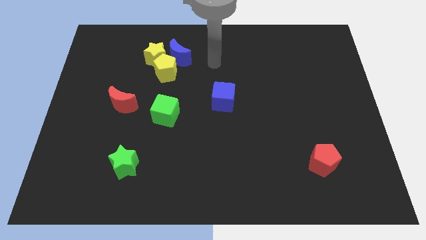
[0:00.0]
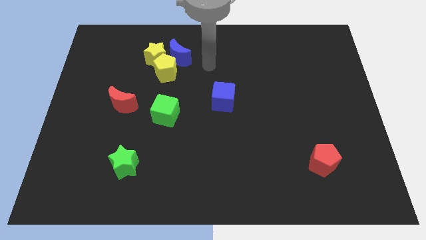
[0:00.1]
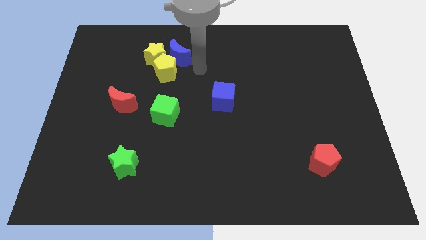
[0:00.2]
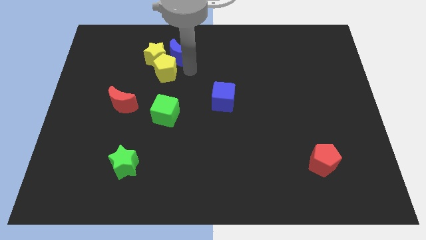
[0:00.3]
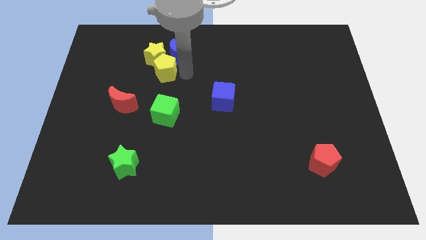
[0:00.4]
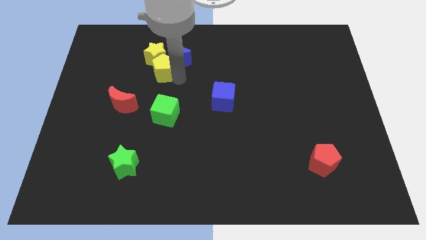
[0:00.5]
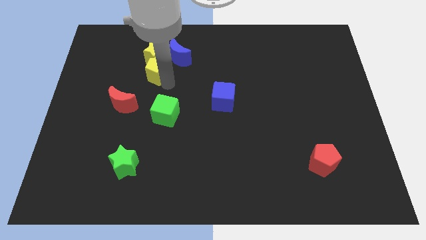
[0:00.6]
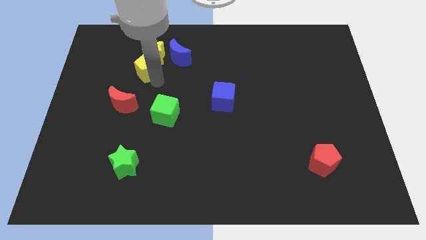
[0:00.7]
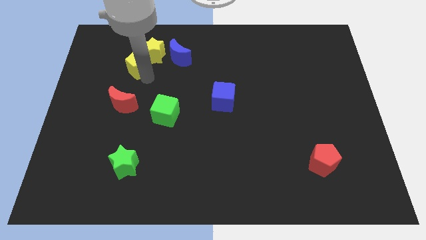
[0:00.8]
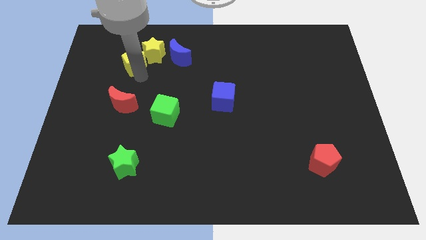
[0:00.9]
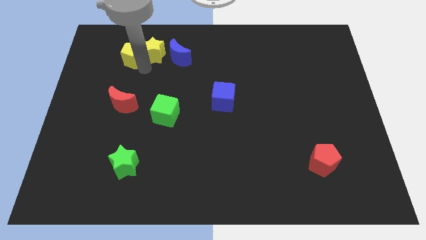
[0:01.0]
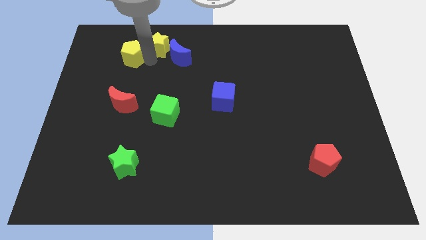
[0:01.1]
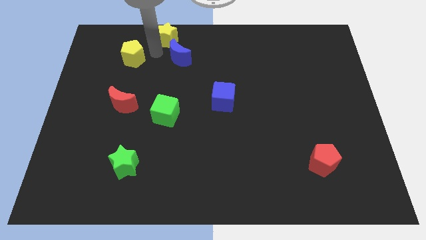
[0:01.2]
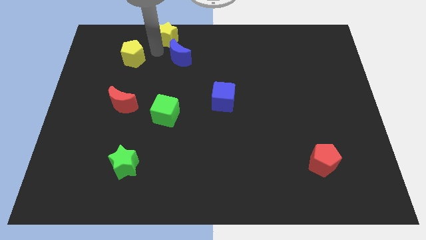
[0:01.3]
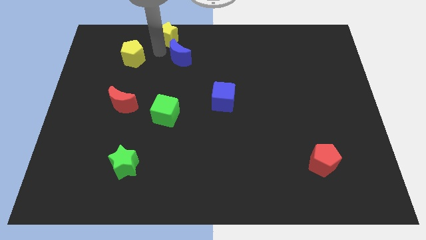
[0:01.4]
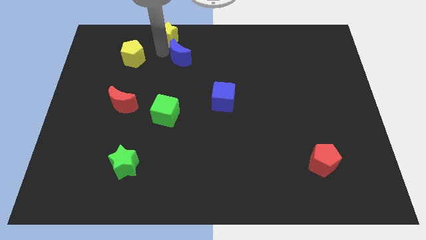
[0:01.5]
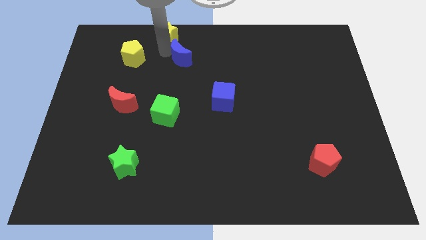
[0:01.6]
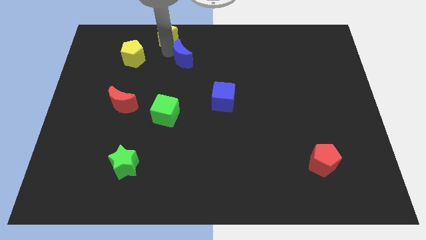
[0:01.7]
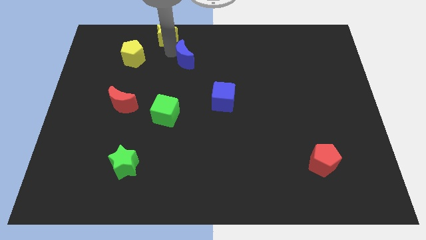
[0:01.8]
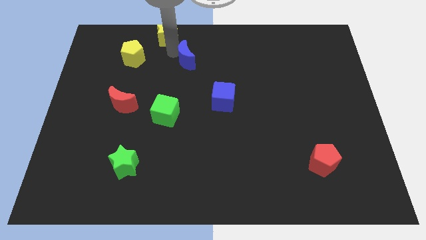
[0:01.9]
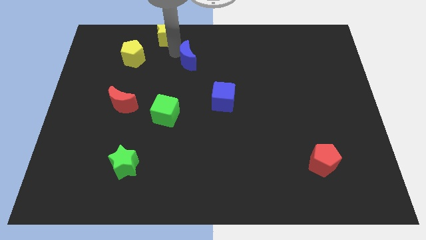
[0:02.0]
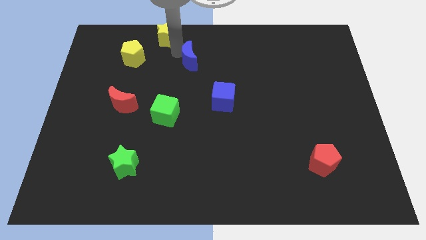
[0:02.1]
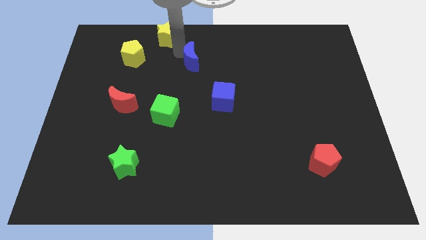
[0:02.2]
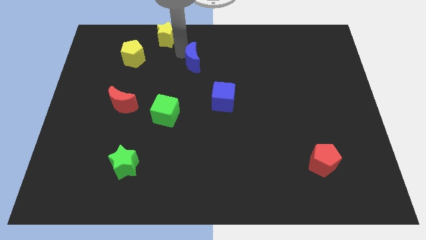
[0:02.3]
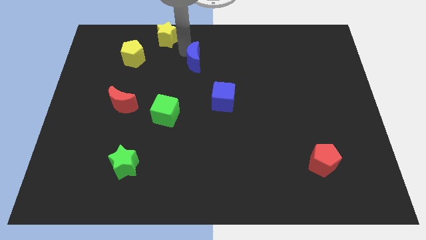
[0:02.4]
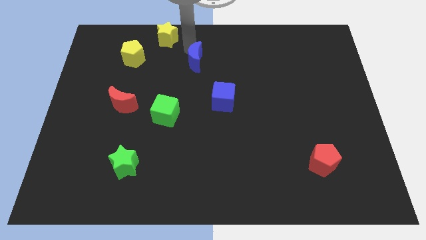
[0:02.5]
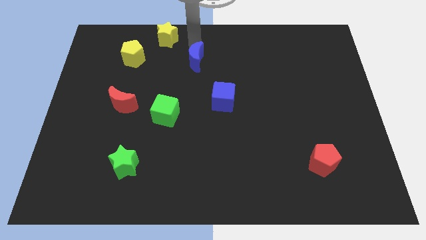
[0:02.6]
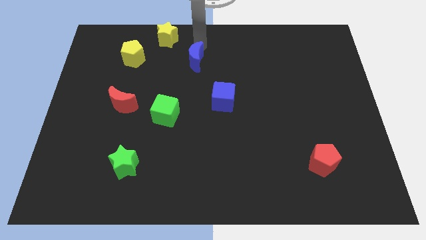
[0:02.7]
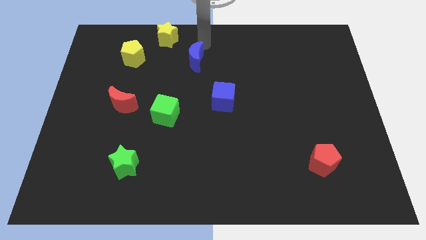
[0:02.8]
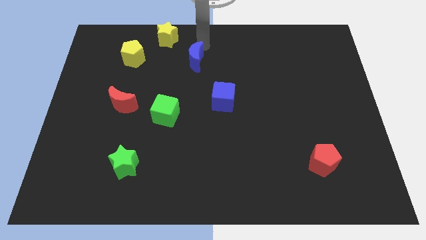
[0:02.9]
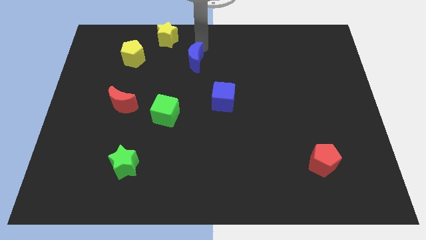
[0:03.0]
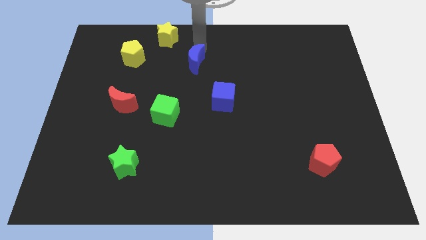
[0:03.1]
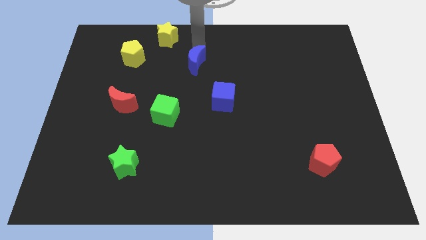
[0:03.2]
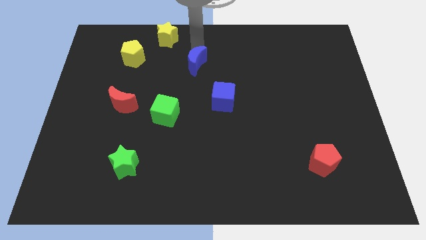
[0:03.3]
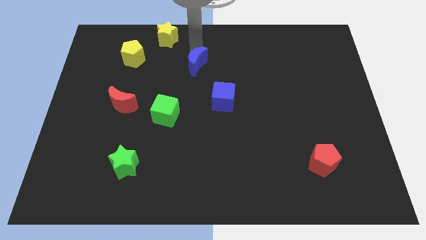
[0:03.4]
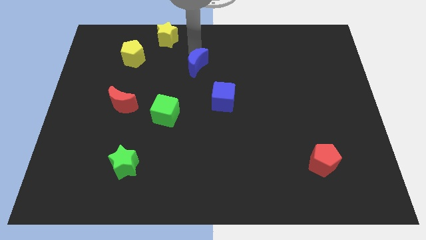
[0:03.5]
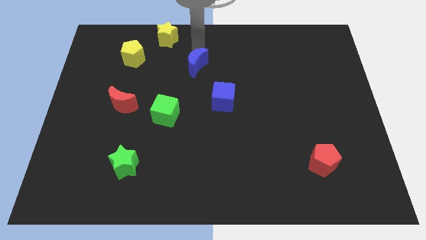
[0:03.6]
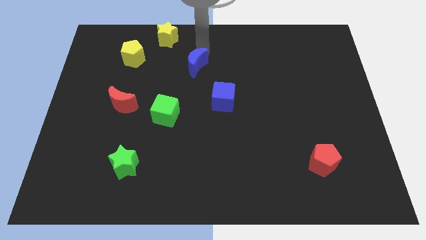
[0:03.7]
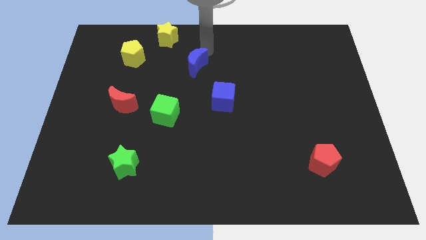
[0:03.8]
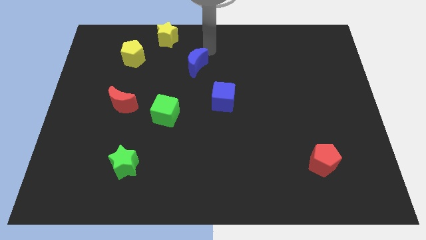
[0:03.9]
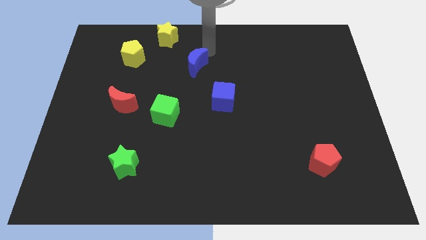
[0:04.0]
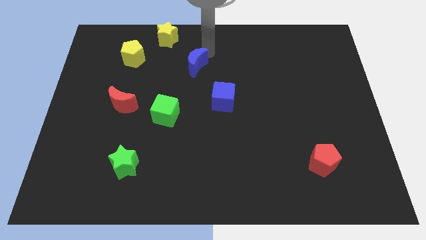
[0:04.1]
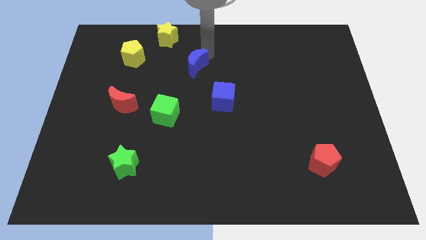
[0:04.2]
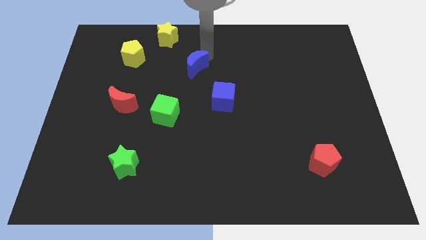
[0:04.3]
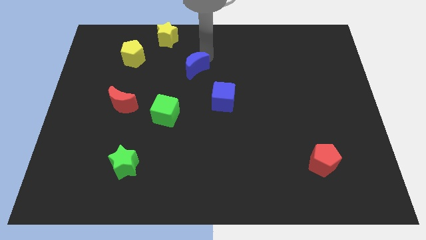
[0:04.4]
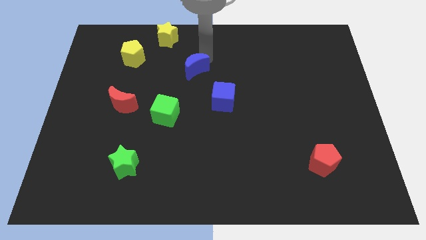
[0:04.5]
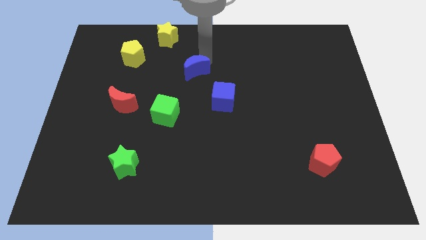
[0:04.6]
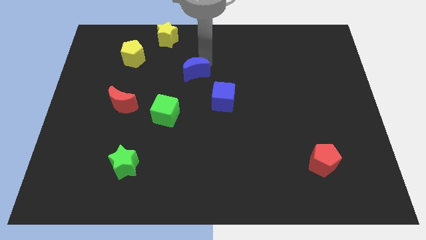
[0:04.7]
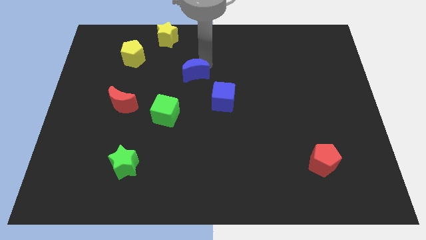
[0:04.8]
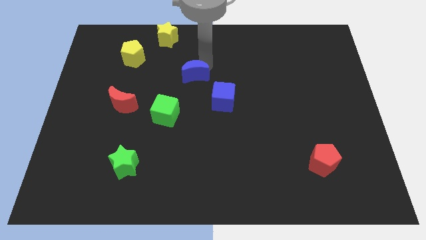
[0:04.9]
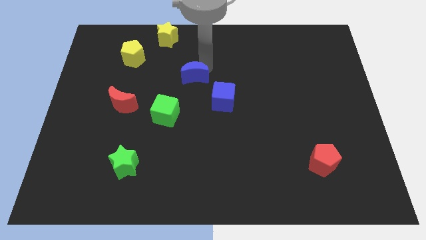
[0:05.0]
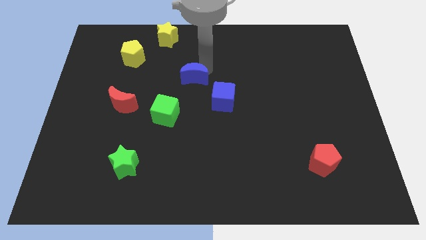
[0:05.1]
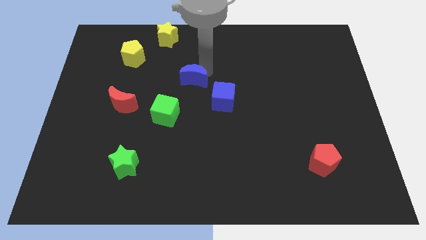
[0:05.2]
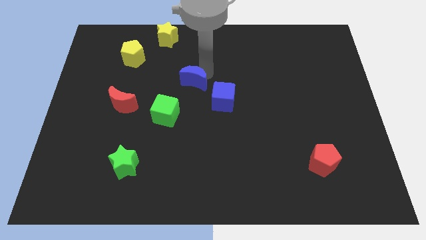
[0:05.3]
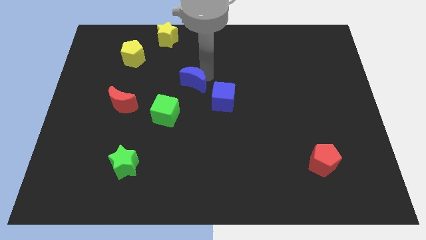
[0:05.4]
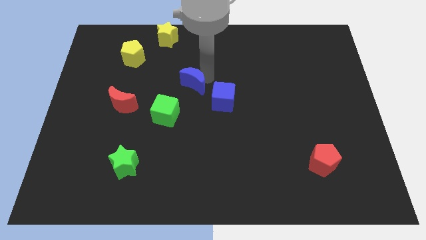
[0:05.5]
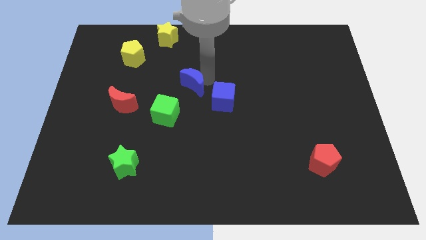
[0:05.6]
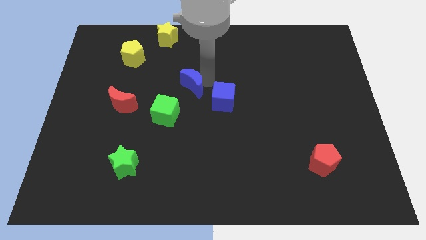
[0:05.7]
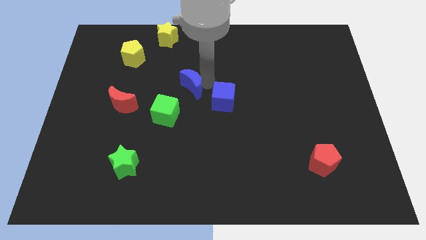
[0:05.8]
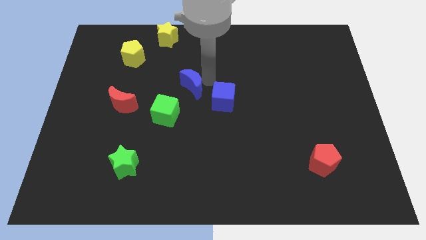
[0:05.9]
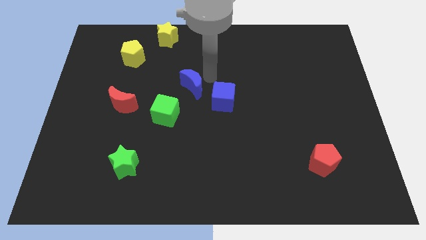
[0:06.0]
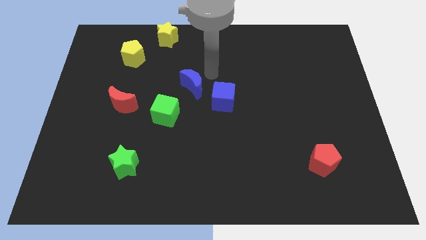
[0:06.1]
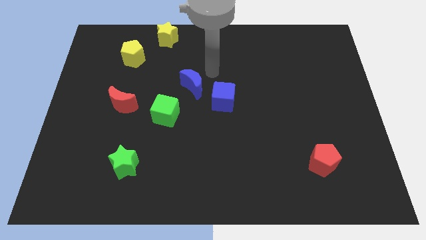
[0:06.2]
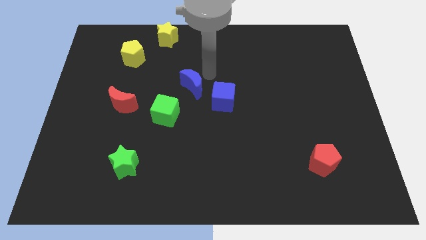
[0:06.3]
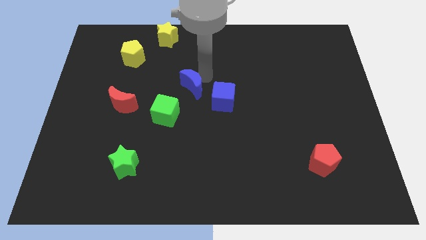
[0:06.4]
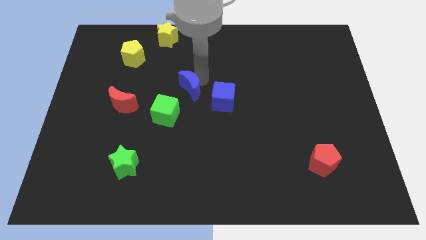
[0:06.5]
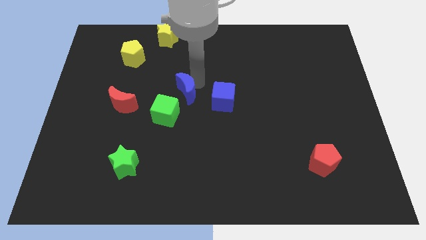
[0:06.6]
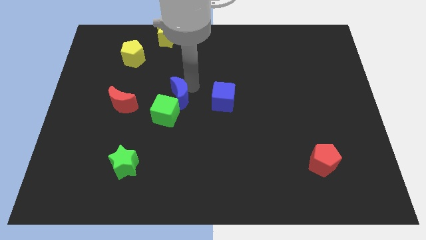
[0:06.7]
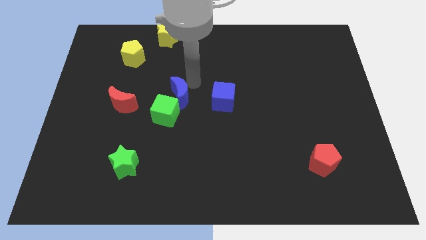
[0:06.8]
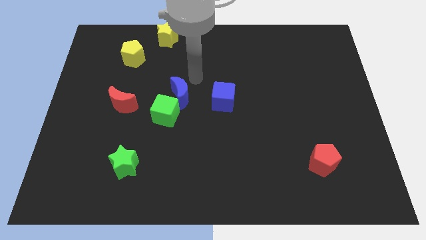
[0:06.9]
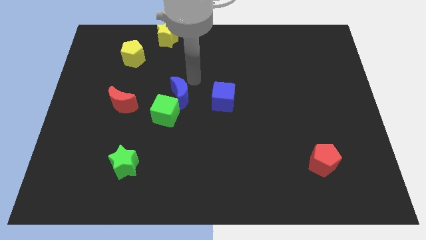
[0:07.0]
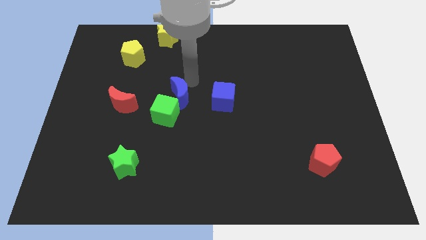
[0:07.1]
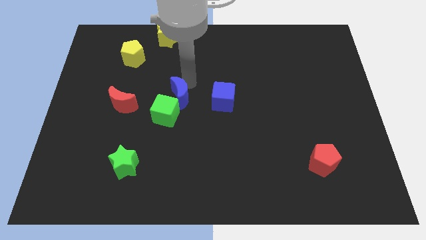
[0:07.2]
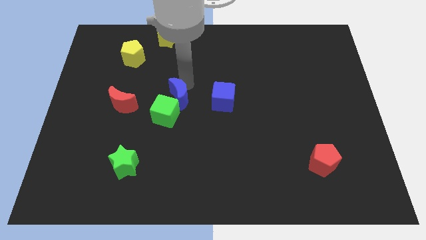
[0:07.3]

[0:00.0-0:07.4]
put the blue moon to the green cube
